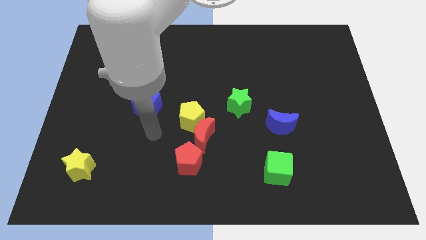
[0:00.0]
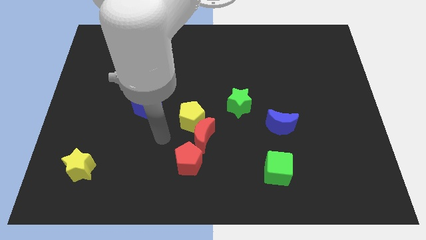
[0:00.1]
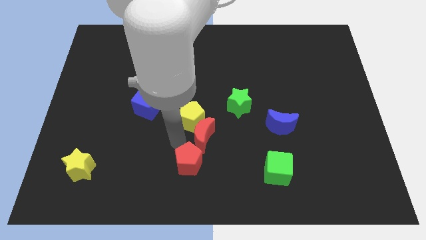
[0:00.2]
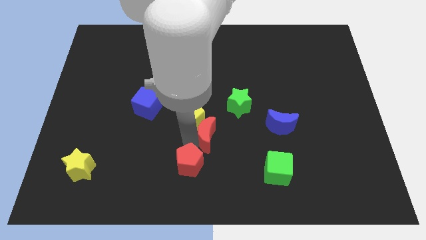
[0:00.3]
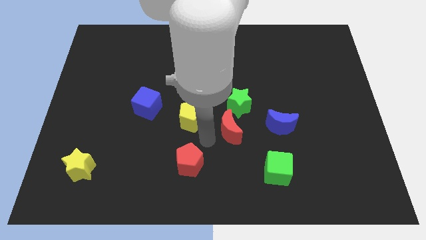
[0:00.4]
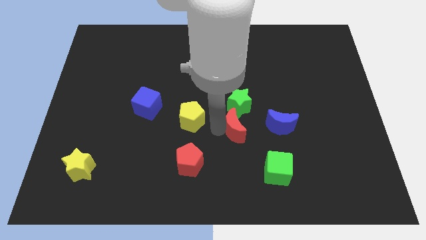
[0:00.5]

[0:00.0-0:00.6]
separate the yellow pentagon from the red moon

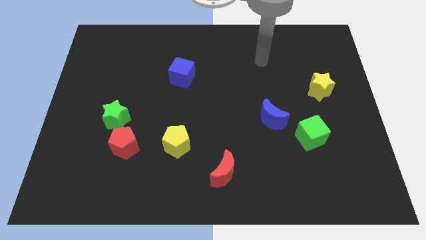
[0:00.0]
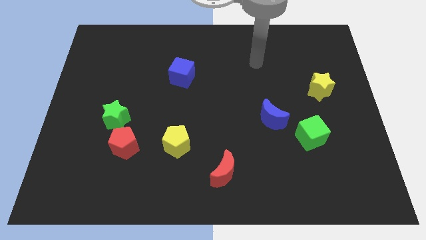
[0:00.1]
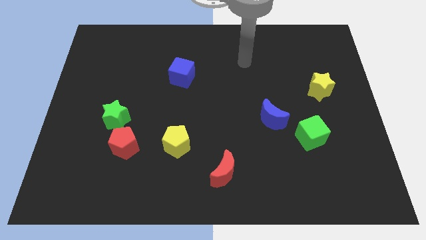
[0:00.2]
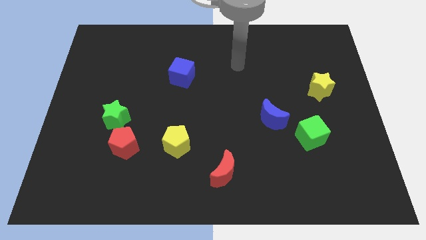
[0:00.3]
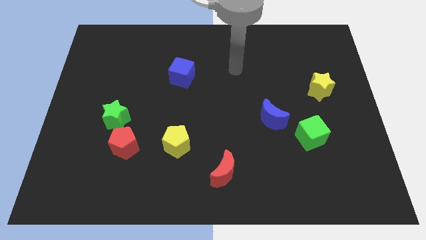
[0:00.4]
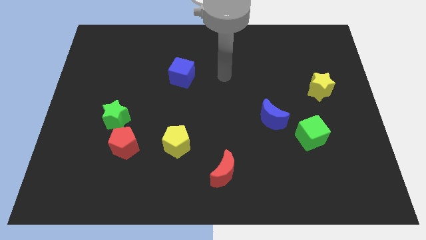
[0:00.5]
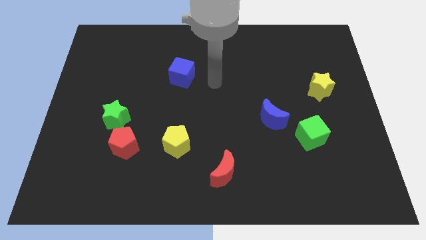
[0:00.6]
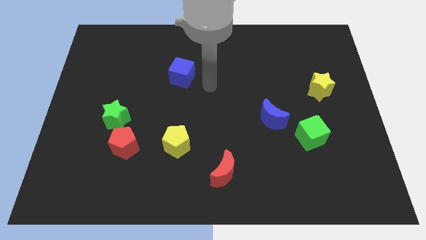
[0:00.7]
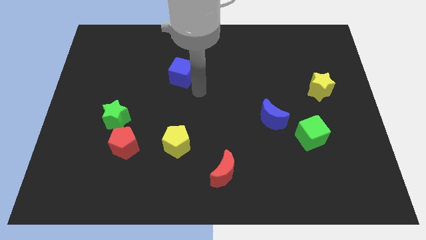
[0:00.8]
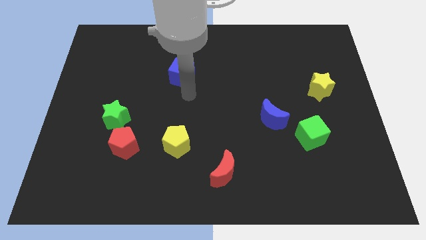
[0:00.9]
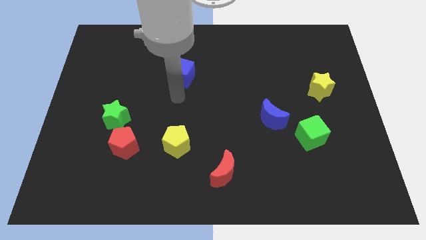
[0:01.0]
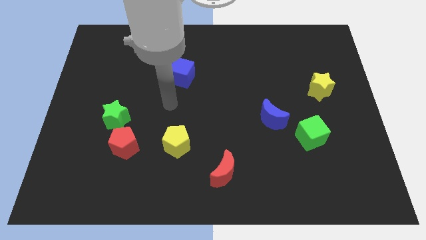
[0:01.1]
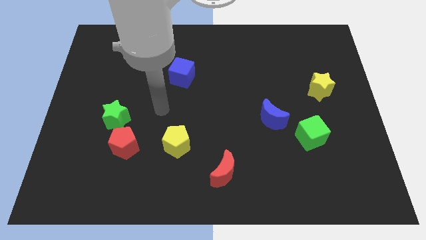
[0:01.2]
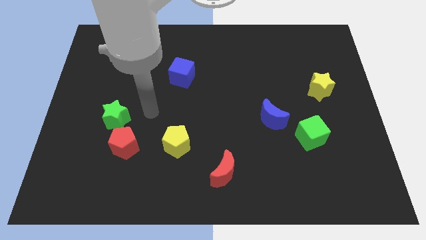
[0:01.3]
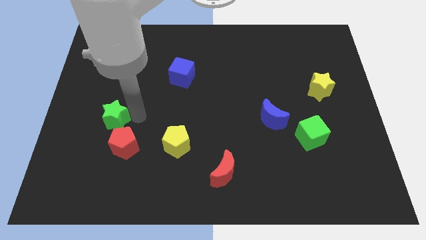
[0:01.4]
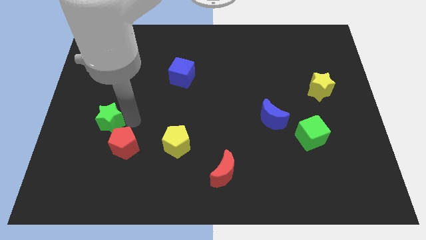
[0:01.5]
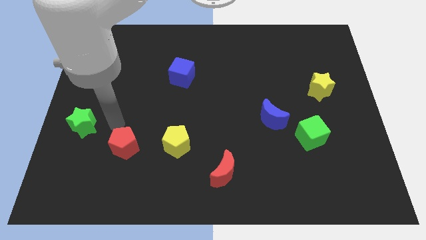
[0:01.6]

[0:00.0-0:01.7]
separate the red pentagon from the green star

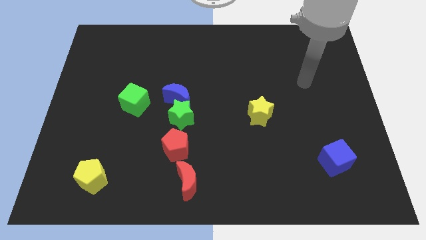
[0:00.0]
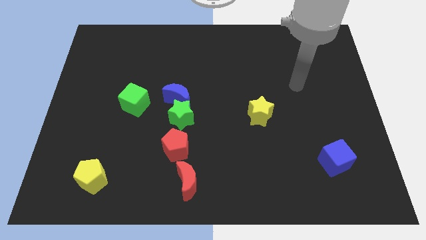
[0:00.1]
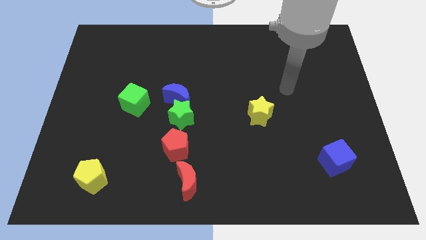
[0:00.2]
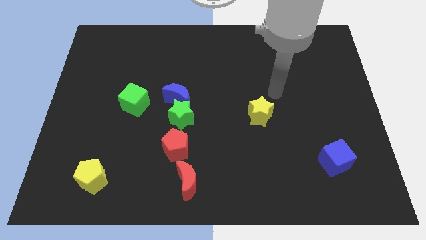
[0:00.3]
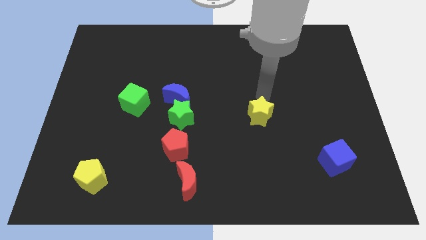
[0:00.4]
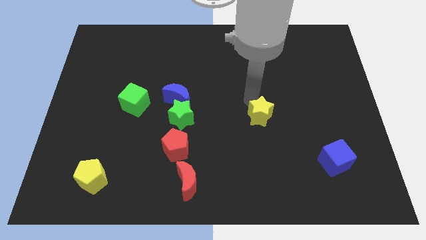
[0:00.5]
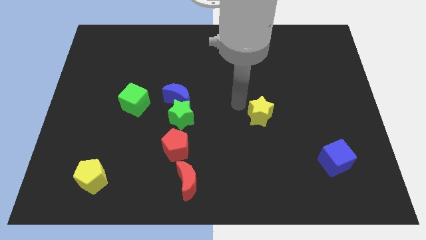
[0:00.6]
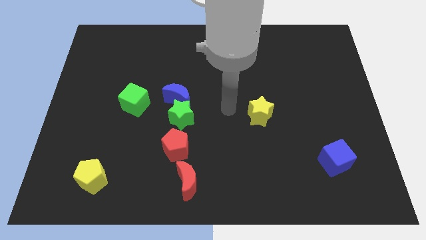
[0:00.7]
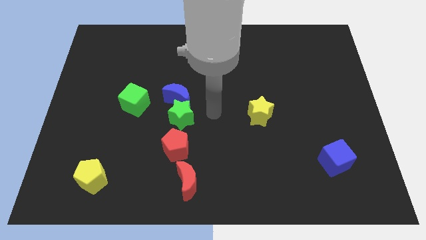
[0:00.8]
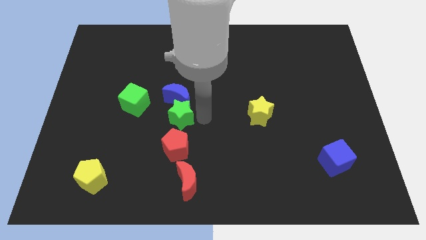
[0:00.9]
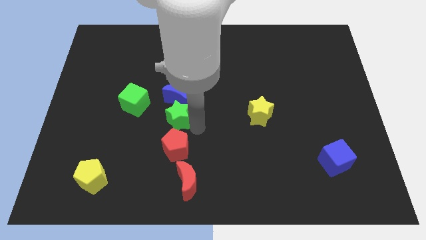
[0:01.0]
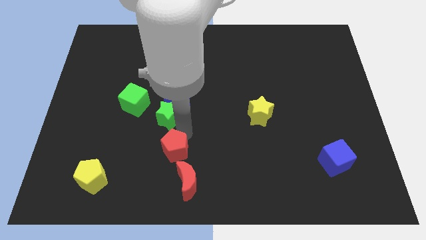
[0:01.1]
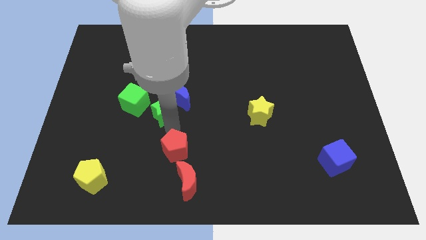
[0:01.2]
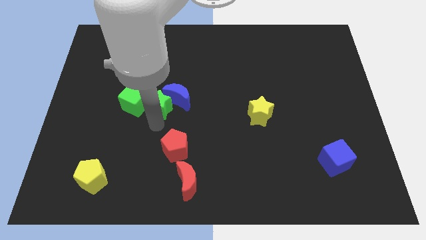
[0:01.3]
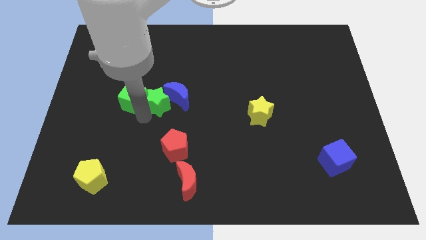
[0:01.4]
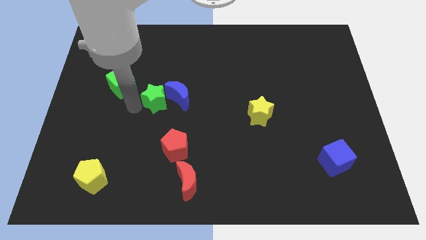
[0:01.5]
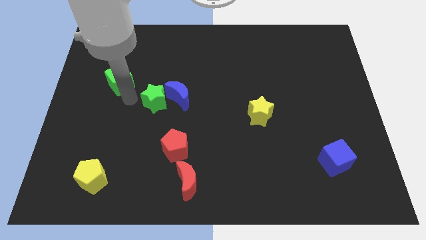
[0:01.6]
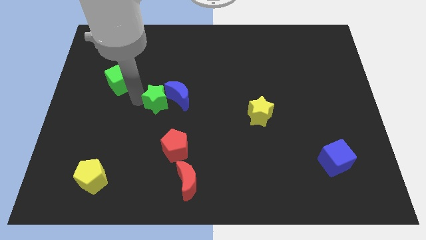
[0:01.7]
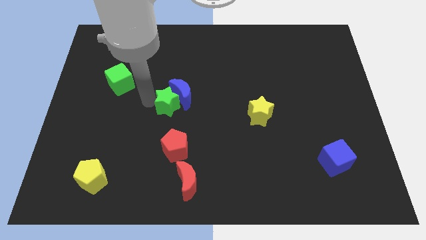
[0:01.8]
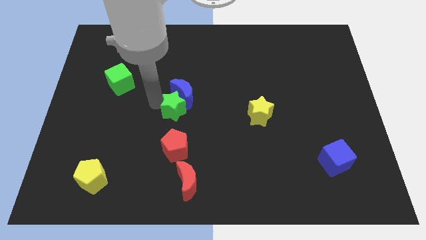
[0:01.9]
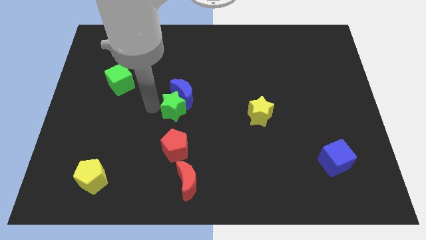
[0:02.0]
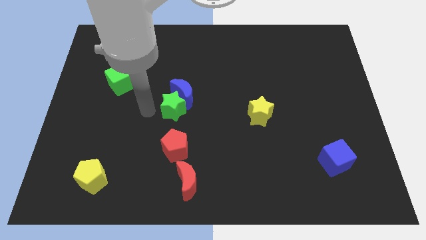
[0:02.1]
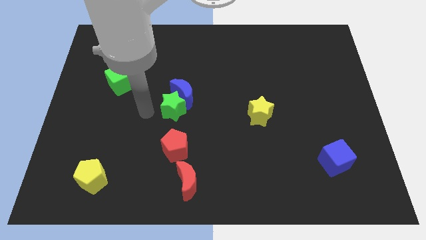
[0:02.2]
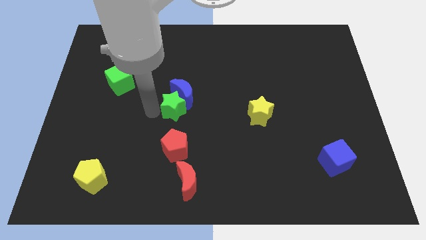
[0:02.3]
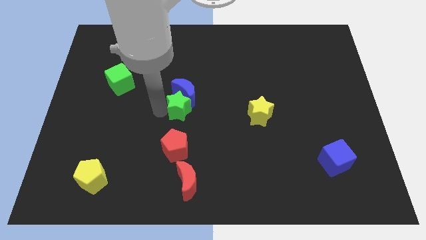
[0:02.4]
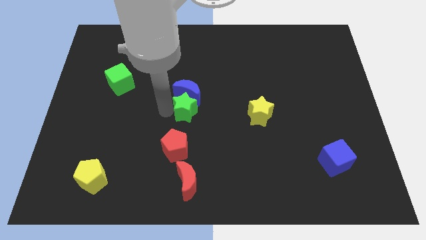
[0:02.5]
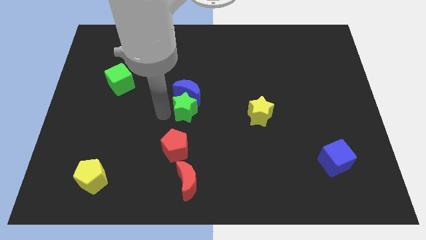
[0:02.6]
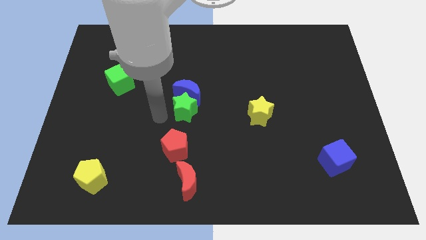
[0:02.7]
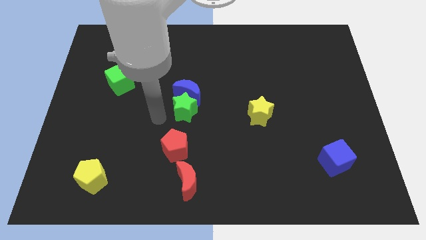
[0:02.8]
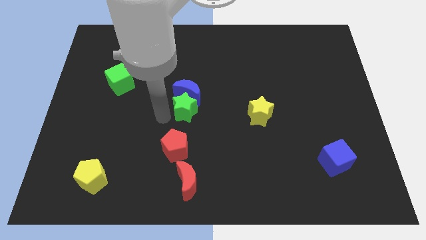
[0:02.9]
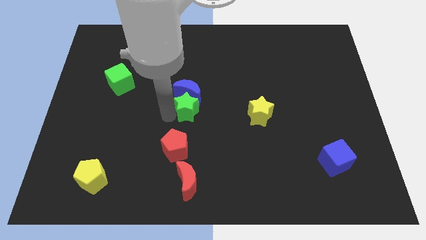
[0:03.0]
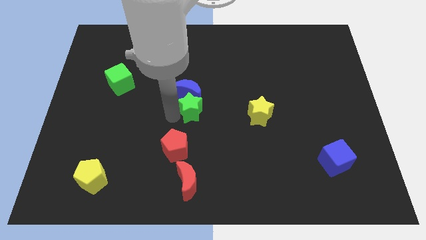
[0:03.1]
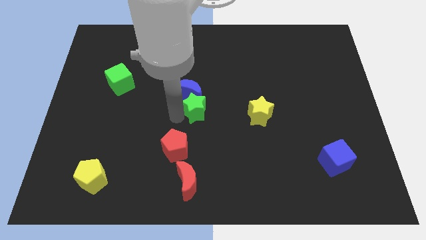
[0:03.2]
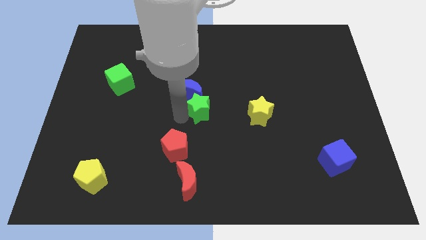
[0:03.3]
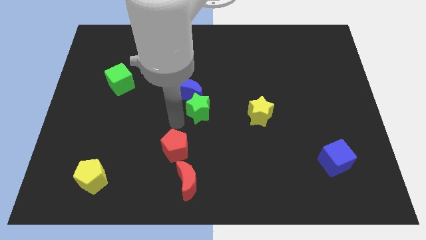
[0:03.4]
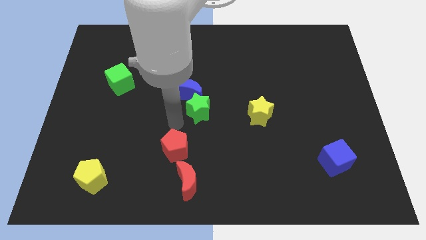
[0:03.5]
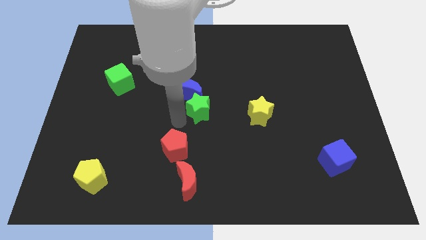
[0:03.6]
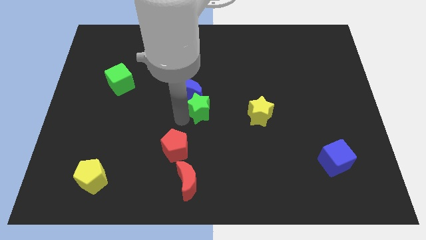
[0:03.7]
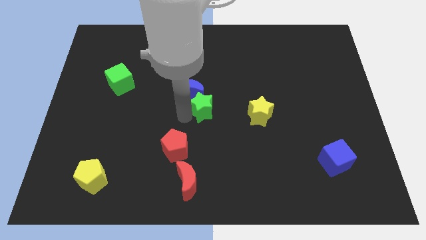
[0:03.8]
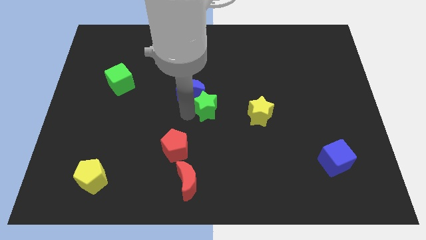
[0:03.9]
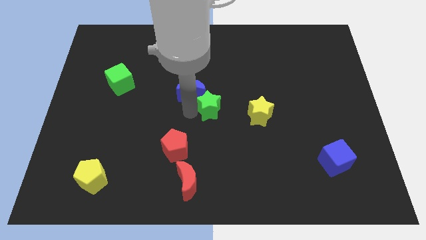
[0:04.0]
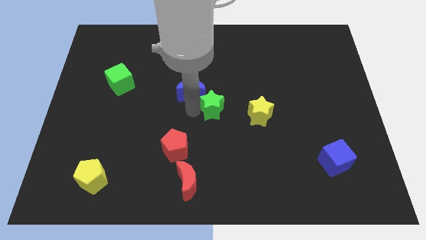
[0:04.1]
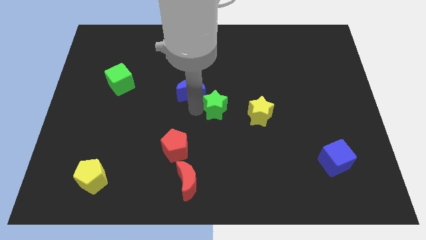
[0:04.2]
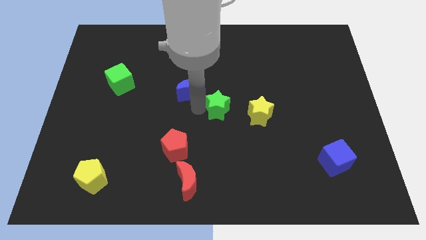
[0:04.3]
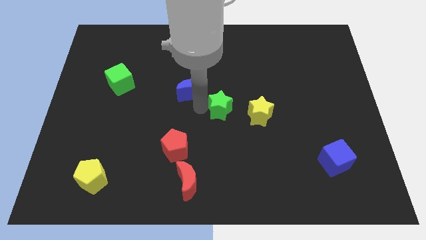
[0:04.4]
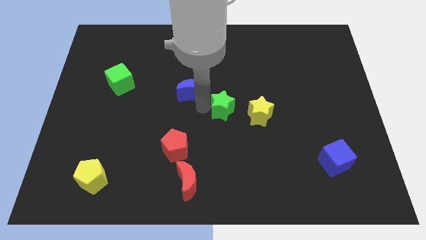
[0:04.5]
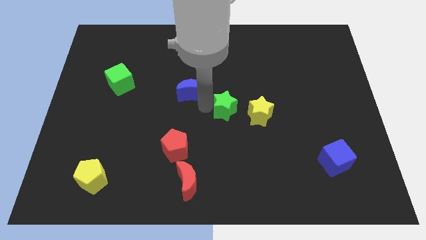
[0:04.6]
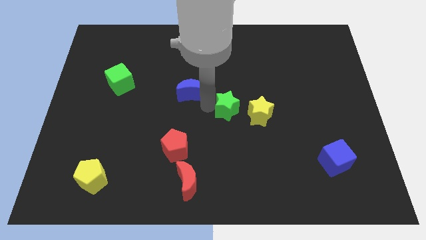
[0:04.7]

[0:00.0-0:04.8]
separate the green star from the blue moon and red pentagon

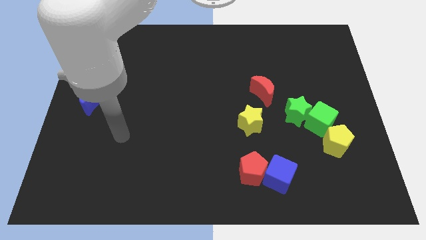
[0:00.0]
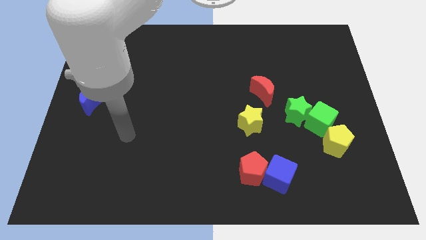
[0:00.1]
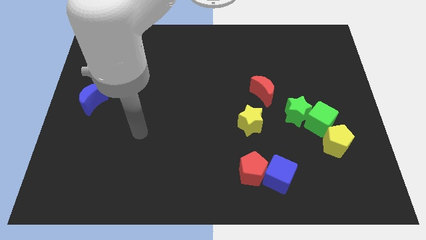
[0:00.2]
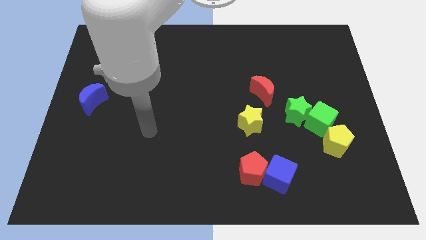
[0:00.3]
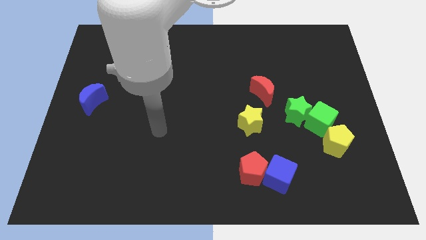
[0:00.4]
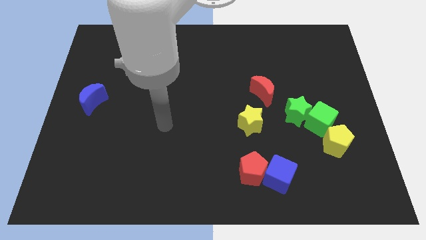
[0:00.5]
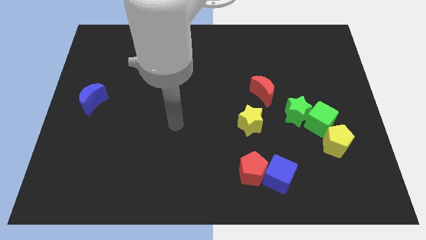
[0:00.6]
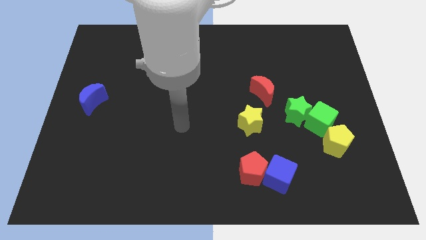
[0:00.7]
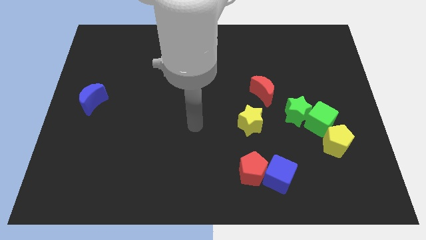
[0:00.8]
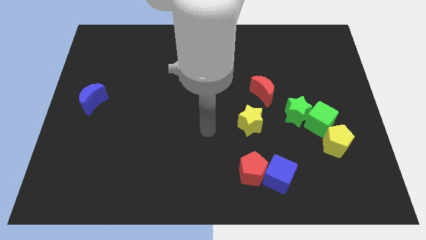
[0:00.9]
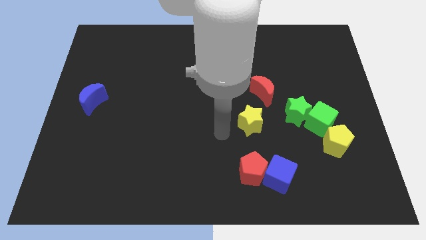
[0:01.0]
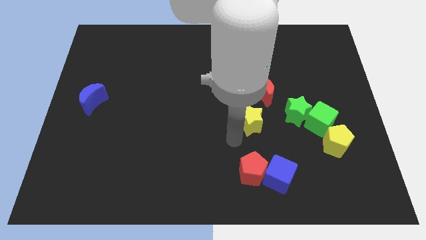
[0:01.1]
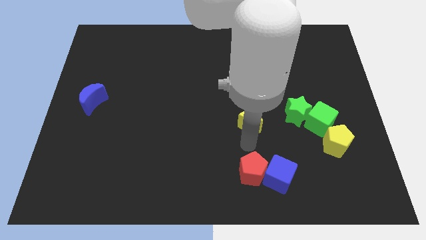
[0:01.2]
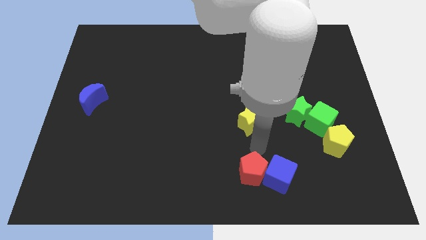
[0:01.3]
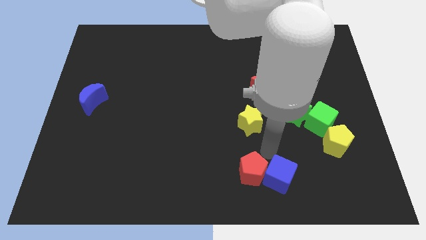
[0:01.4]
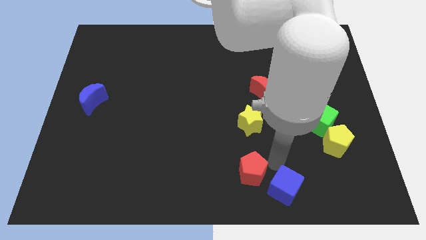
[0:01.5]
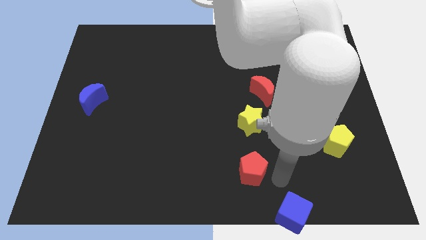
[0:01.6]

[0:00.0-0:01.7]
separate the red pentagon from the blue cube

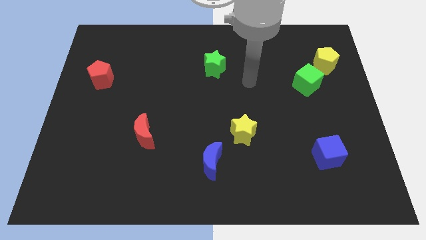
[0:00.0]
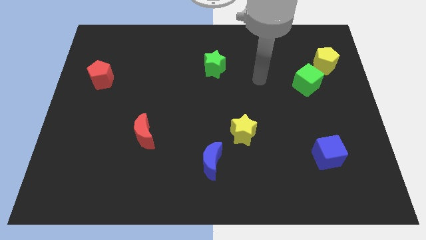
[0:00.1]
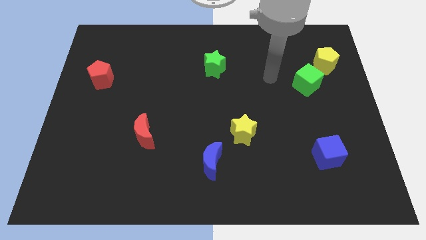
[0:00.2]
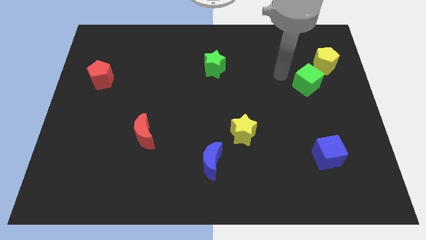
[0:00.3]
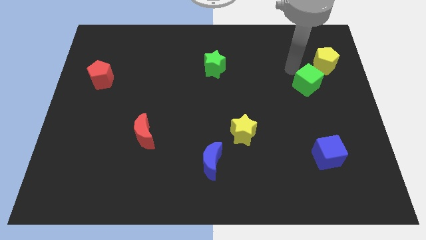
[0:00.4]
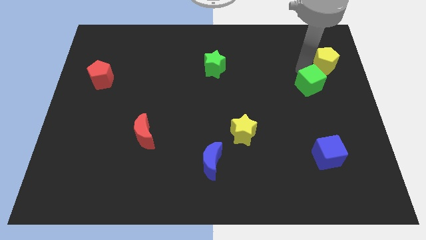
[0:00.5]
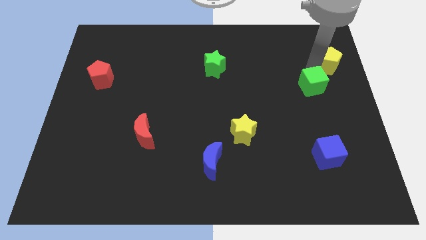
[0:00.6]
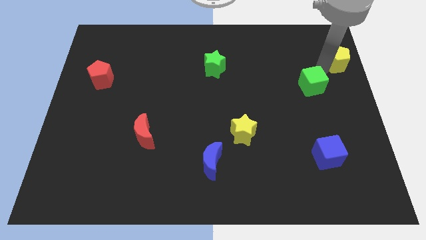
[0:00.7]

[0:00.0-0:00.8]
pull the green cube apart from the yellow pentagon
